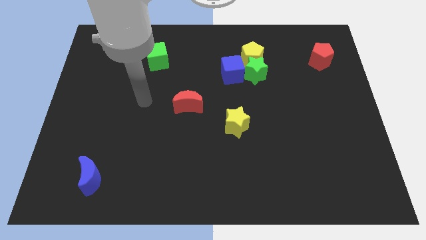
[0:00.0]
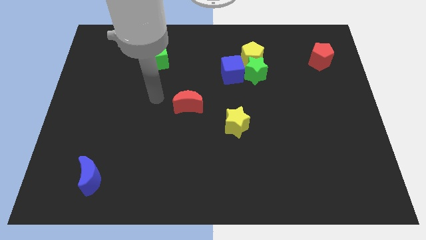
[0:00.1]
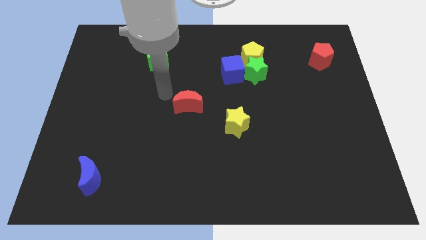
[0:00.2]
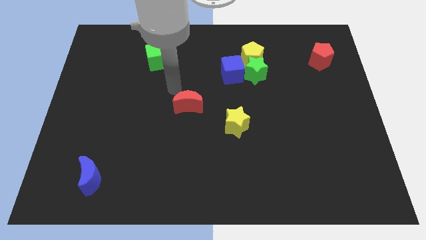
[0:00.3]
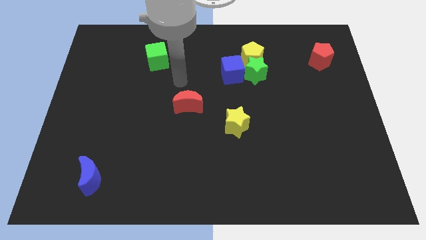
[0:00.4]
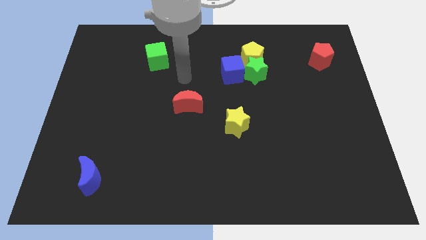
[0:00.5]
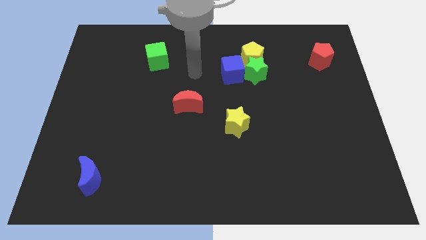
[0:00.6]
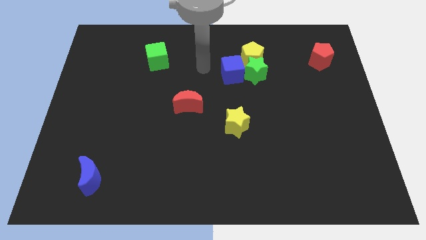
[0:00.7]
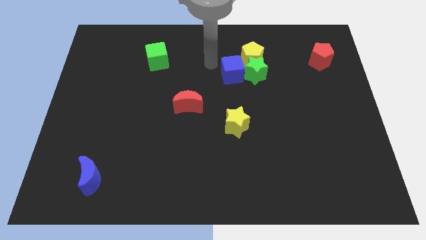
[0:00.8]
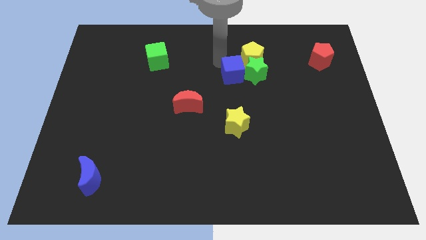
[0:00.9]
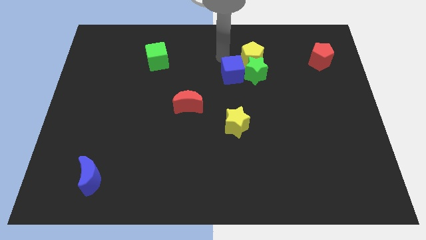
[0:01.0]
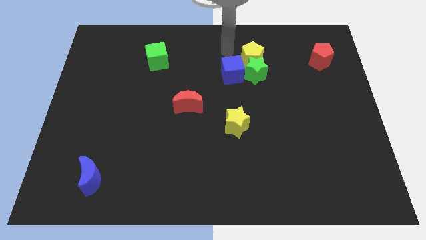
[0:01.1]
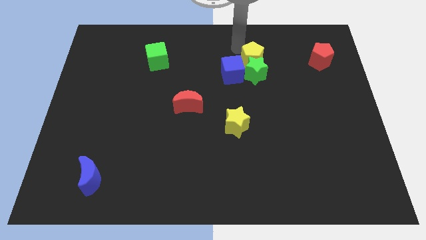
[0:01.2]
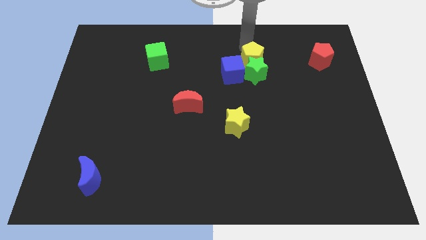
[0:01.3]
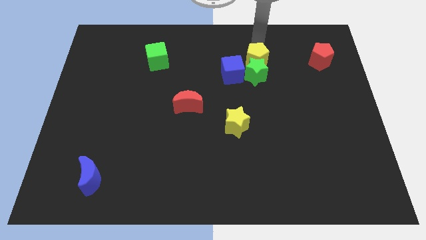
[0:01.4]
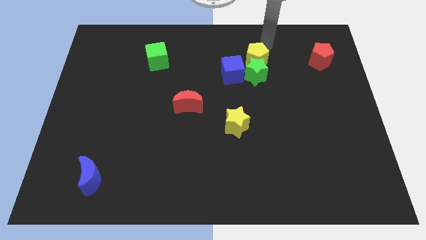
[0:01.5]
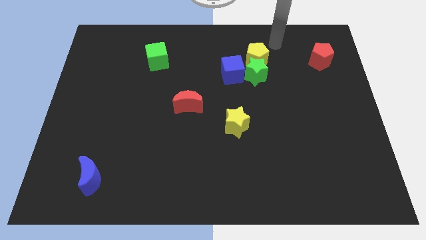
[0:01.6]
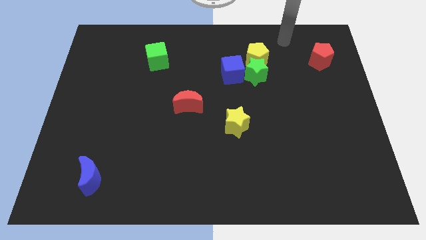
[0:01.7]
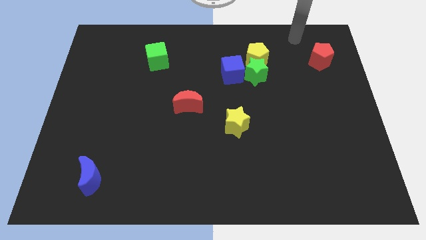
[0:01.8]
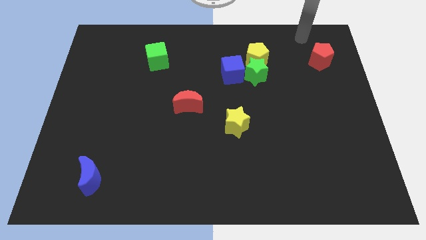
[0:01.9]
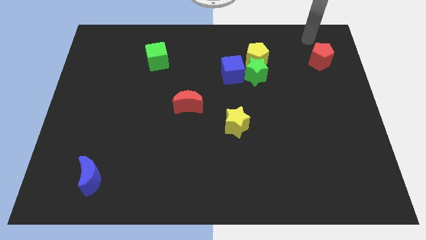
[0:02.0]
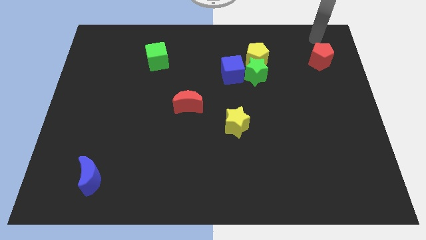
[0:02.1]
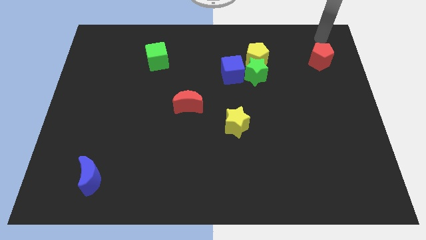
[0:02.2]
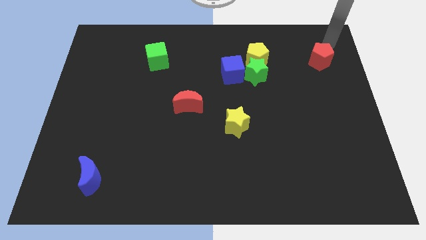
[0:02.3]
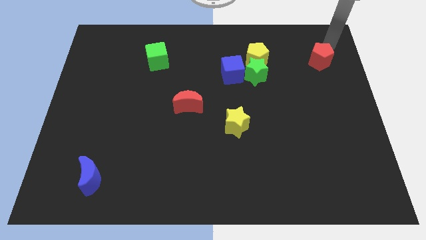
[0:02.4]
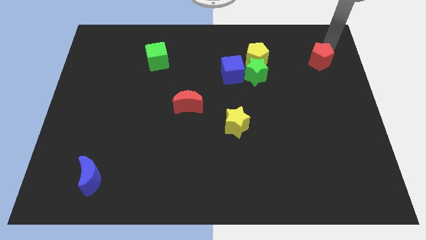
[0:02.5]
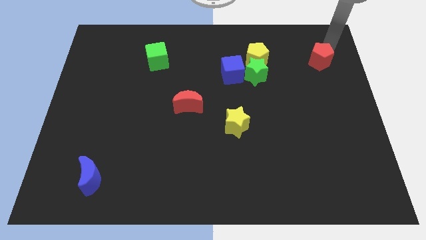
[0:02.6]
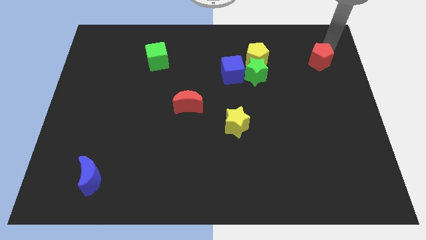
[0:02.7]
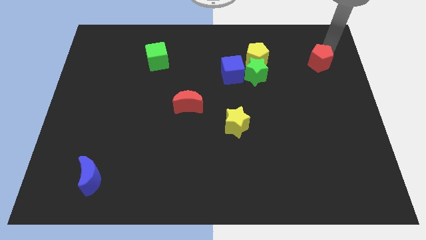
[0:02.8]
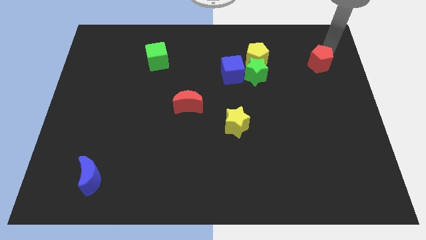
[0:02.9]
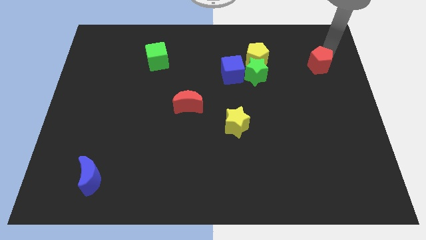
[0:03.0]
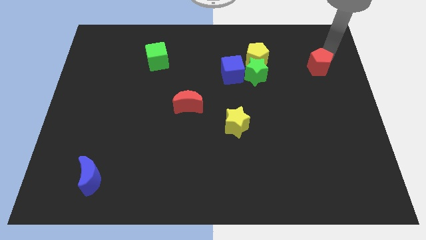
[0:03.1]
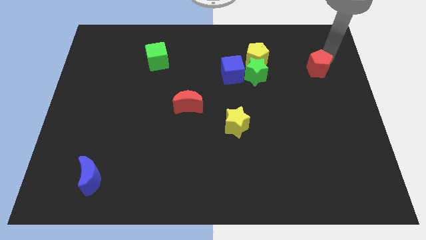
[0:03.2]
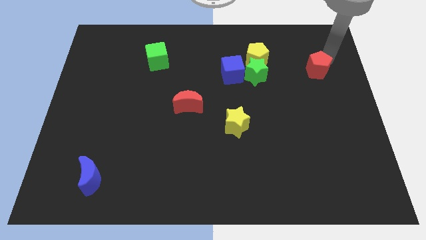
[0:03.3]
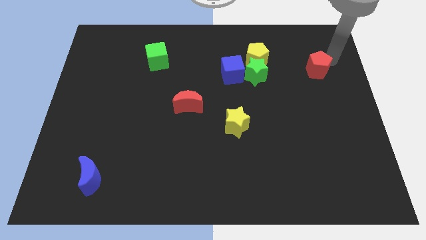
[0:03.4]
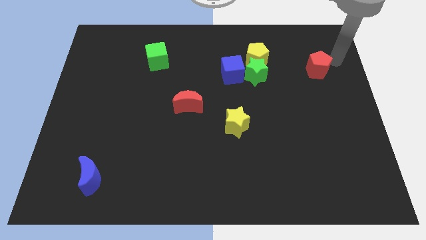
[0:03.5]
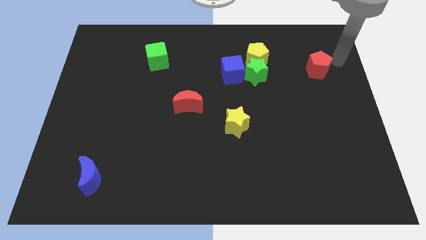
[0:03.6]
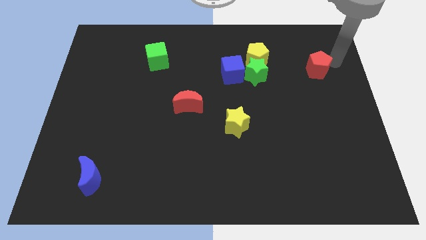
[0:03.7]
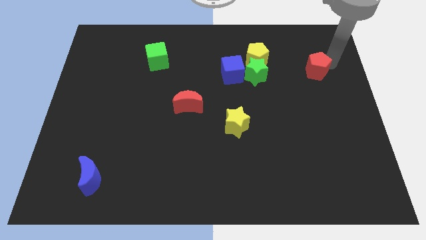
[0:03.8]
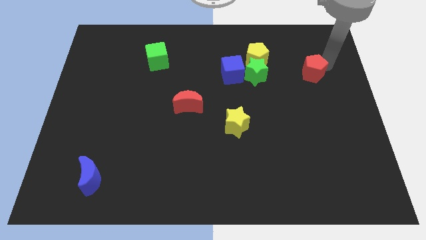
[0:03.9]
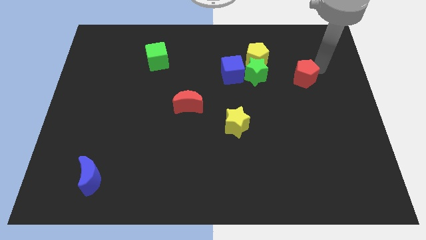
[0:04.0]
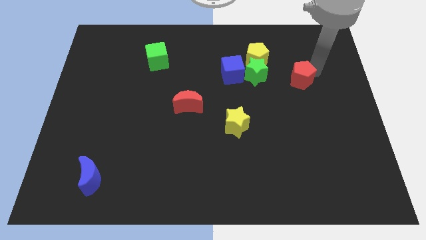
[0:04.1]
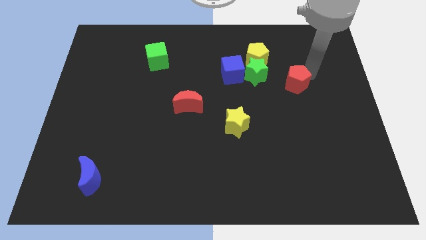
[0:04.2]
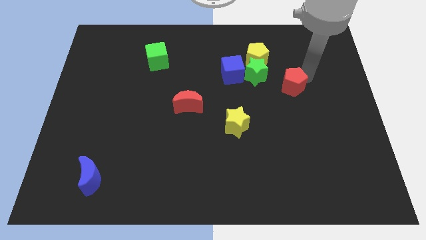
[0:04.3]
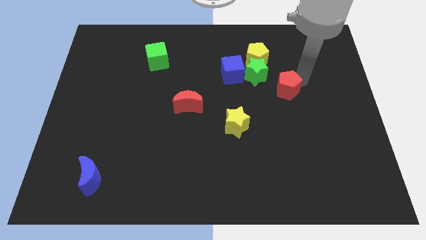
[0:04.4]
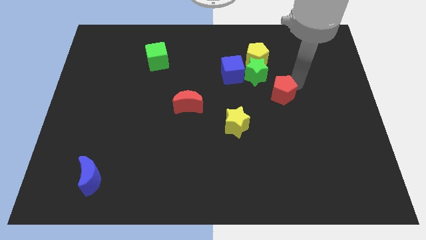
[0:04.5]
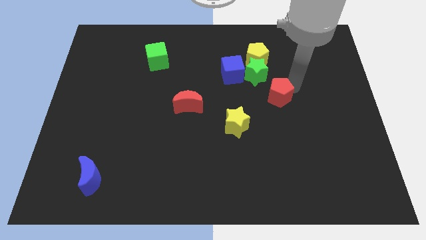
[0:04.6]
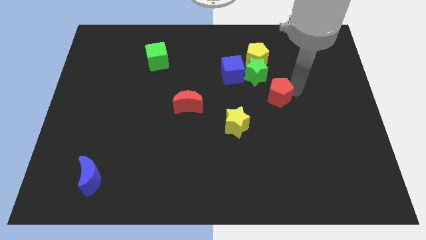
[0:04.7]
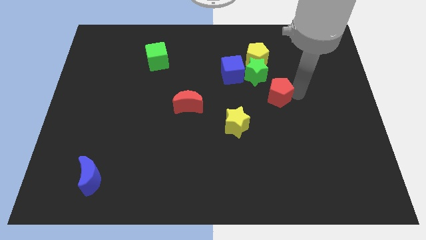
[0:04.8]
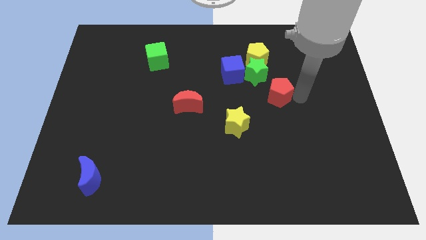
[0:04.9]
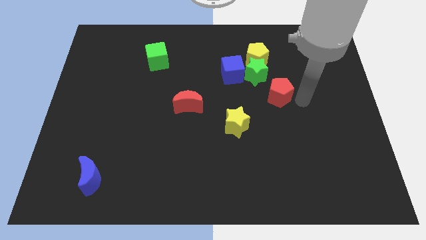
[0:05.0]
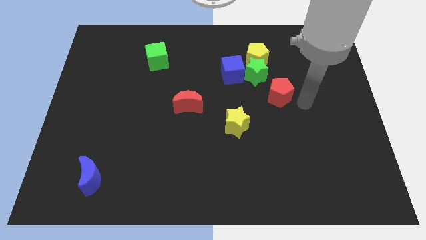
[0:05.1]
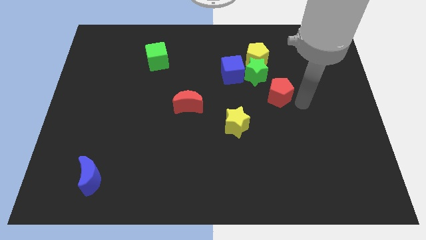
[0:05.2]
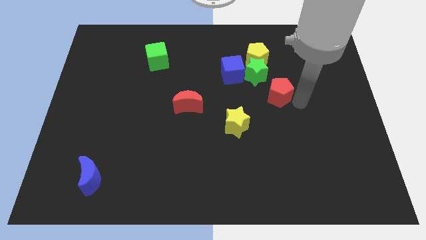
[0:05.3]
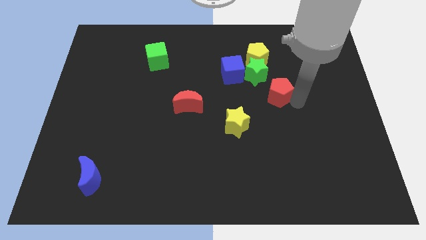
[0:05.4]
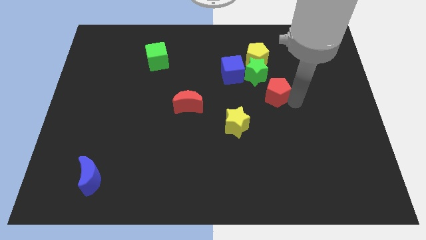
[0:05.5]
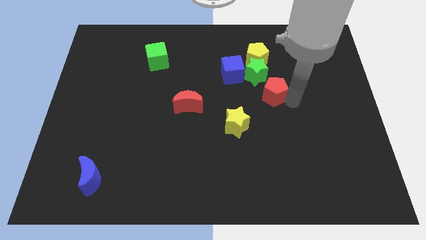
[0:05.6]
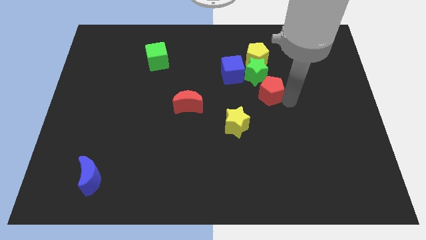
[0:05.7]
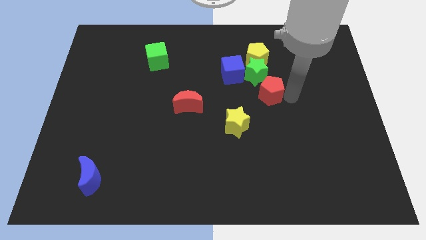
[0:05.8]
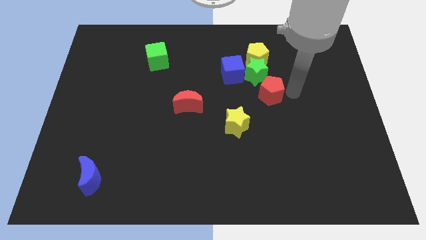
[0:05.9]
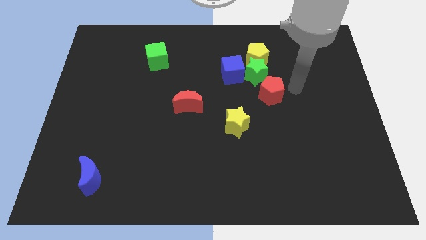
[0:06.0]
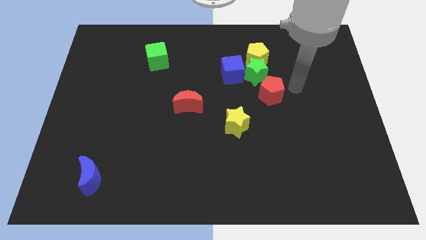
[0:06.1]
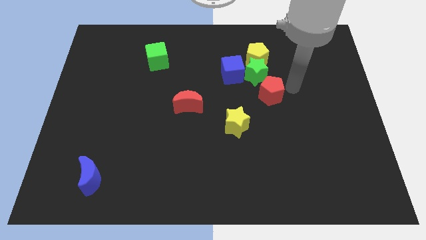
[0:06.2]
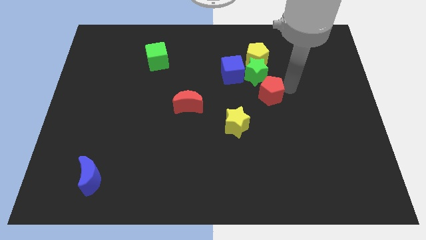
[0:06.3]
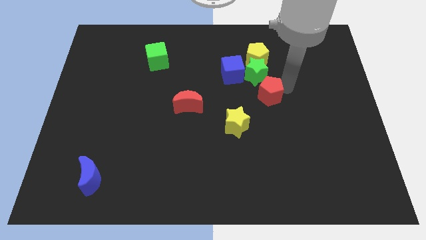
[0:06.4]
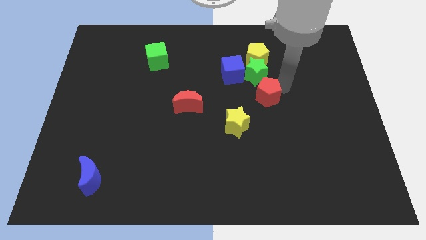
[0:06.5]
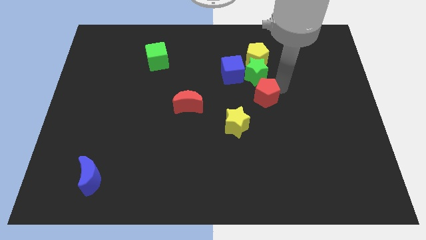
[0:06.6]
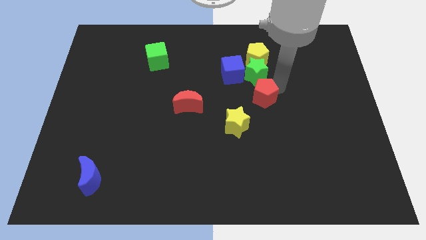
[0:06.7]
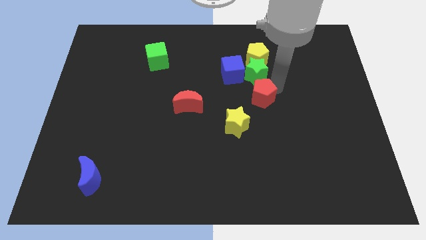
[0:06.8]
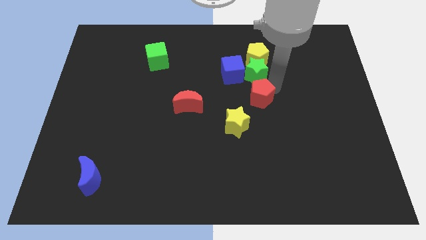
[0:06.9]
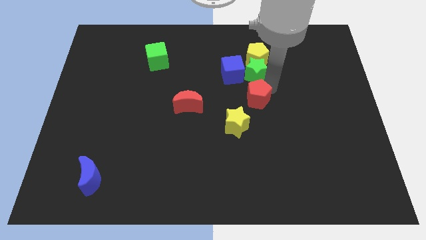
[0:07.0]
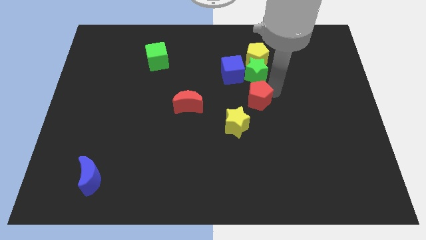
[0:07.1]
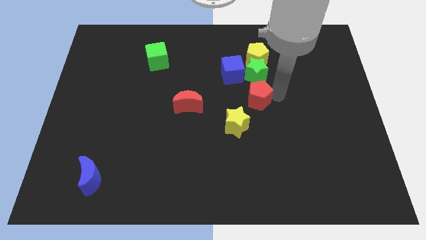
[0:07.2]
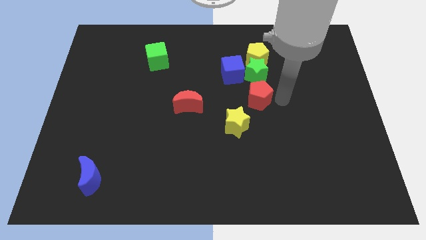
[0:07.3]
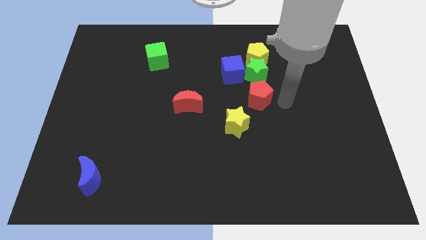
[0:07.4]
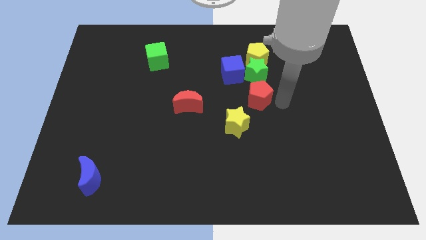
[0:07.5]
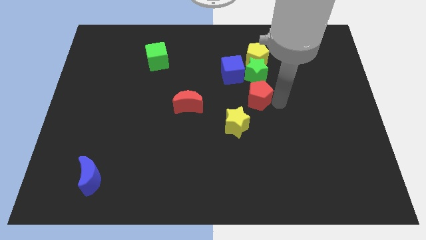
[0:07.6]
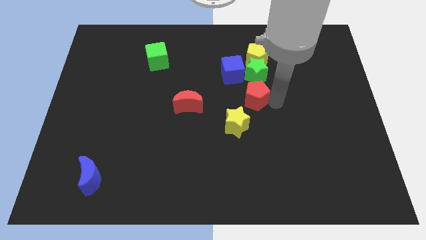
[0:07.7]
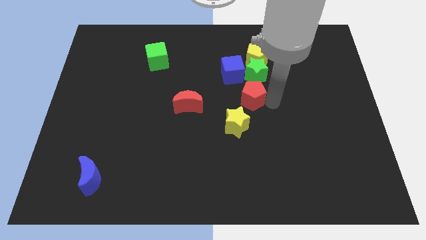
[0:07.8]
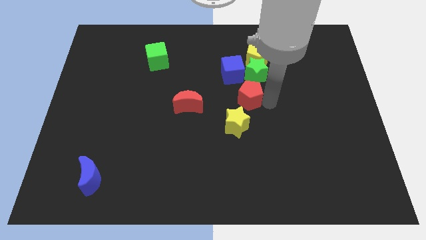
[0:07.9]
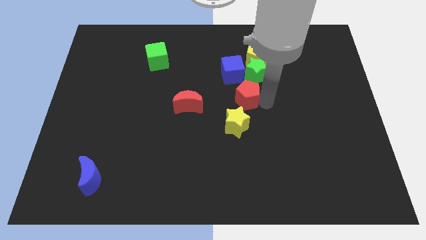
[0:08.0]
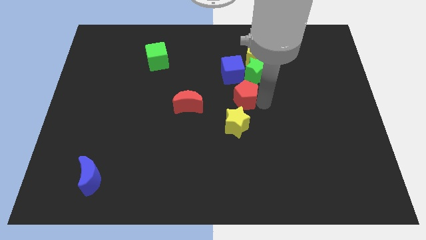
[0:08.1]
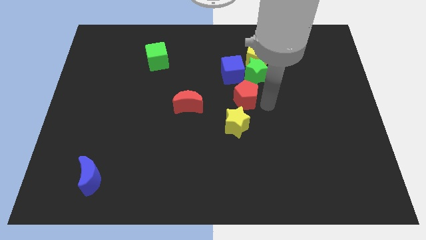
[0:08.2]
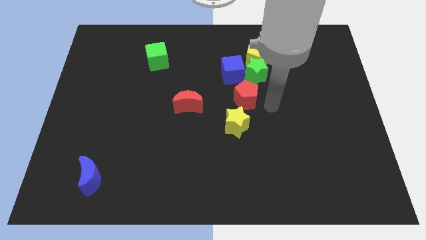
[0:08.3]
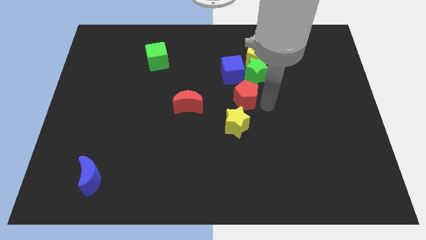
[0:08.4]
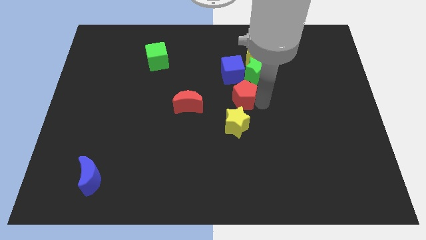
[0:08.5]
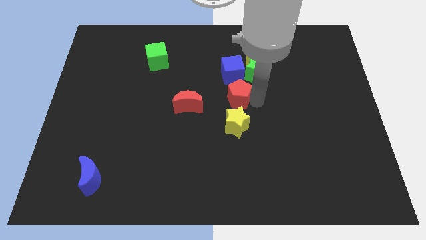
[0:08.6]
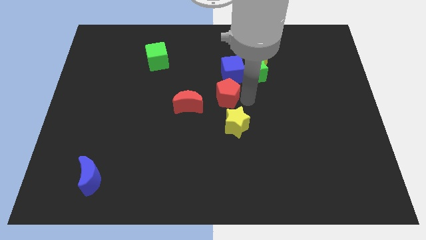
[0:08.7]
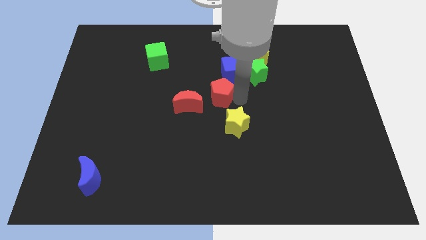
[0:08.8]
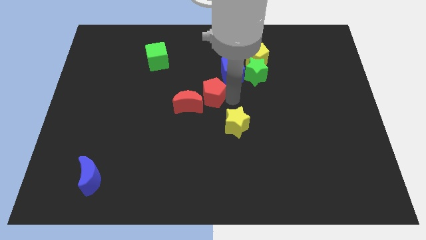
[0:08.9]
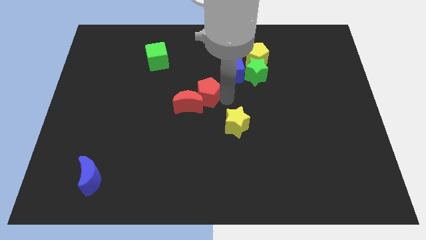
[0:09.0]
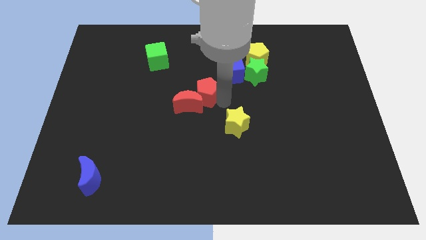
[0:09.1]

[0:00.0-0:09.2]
slide the red pentagon to the top side of the red moon
